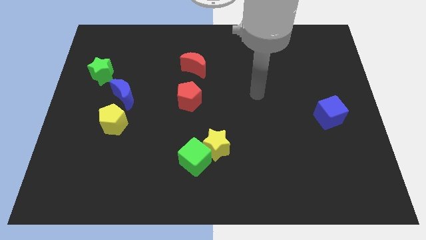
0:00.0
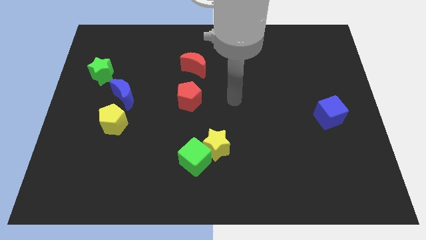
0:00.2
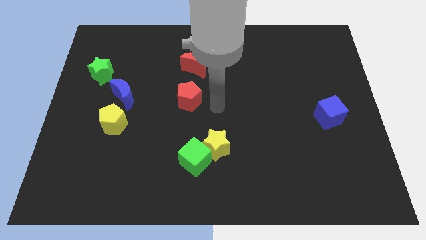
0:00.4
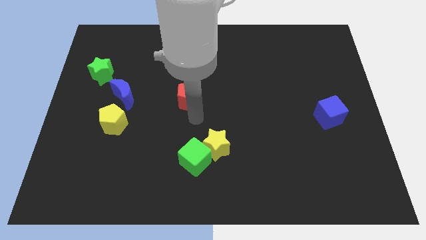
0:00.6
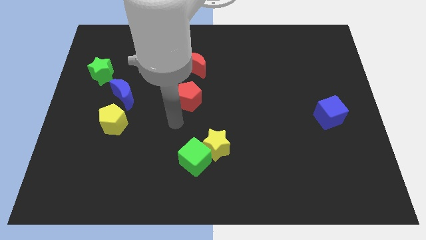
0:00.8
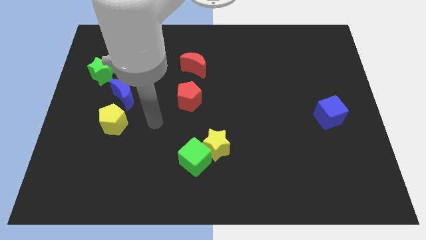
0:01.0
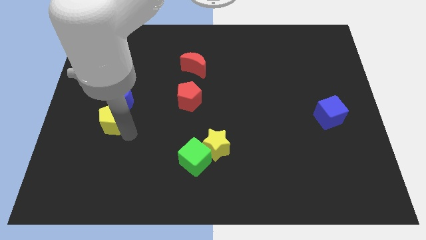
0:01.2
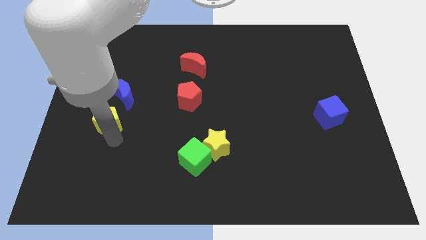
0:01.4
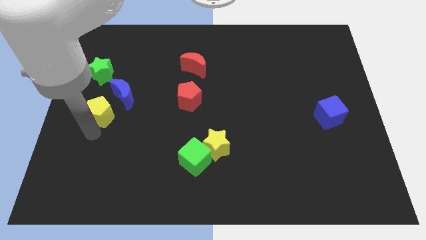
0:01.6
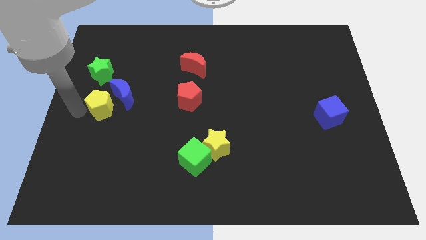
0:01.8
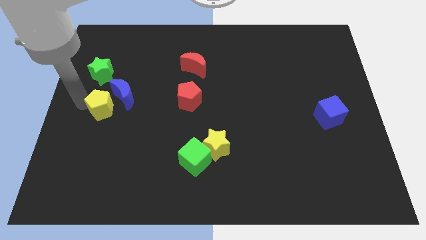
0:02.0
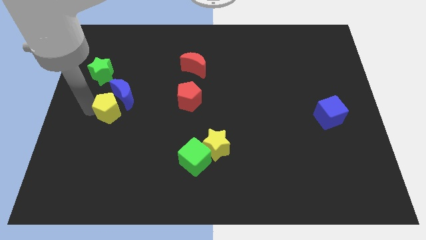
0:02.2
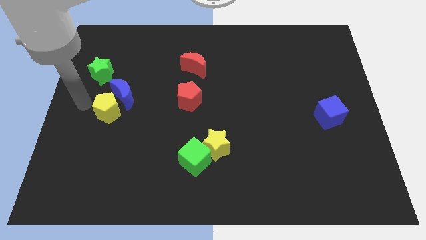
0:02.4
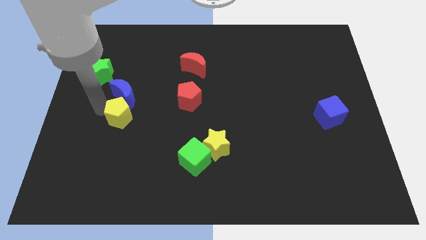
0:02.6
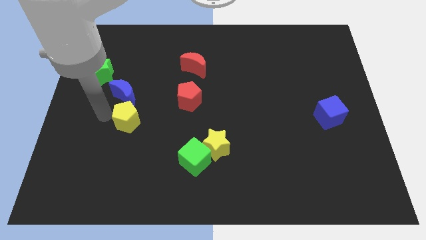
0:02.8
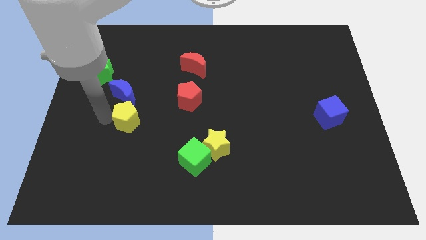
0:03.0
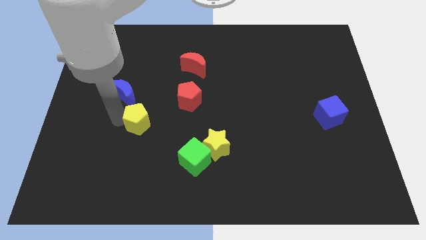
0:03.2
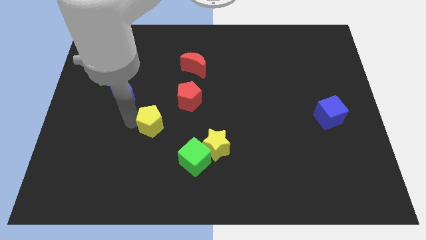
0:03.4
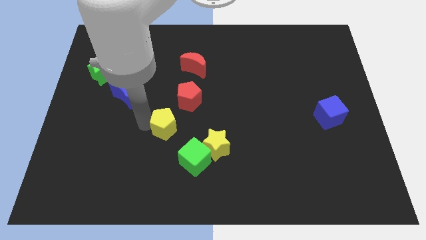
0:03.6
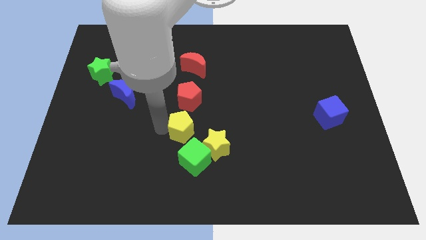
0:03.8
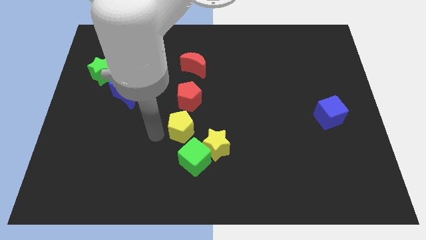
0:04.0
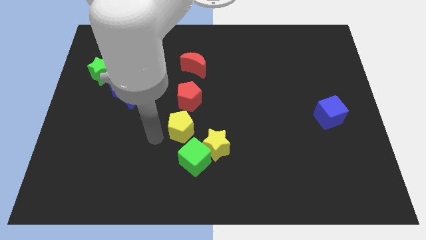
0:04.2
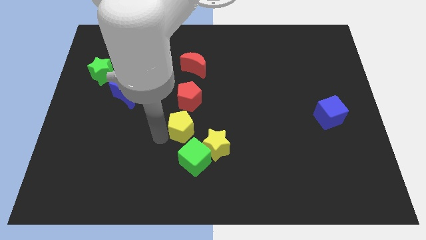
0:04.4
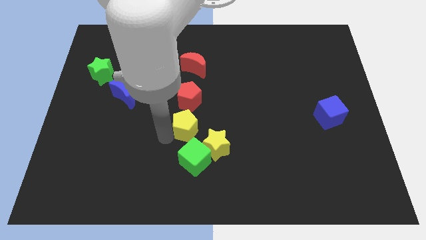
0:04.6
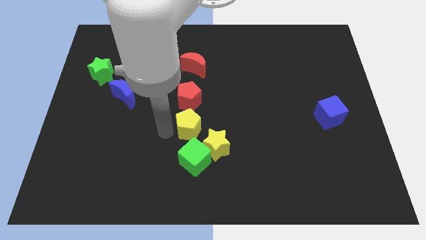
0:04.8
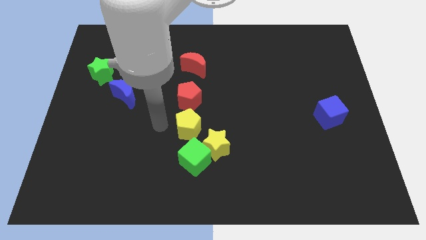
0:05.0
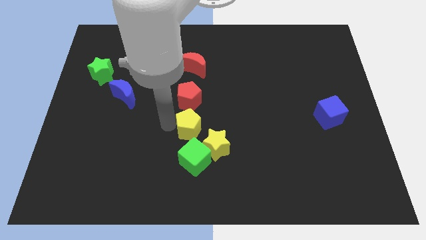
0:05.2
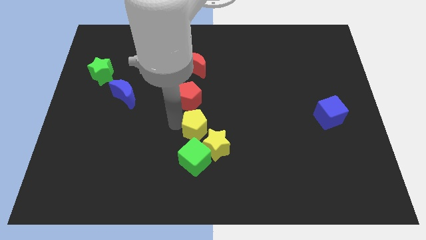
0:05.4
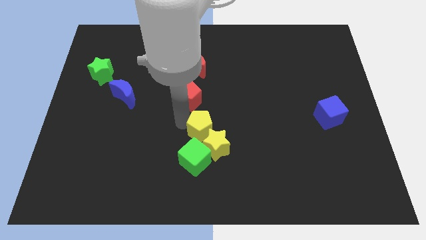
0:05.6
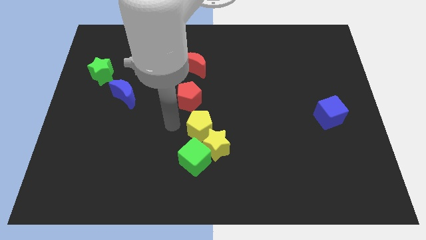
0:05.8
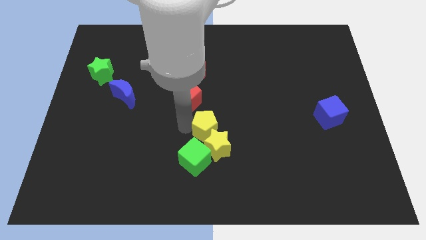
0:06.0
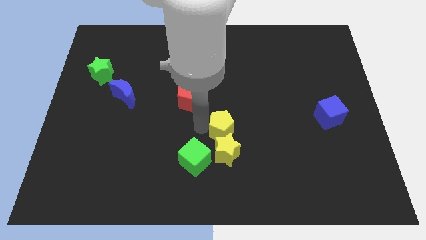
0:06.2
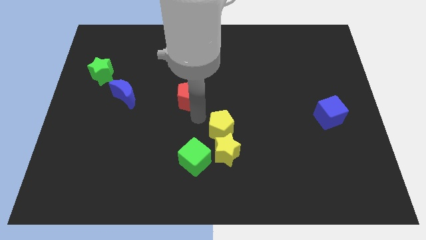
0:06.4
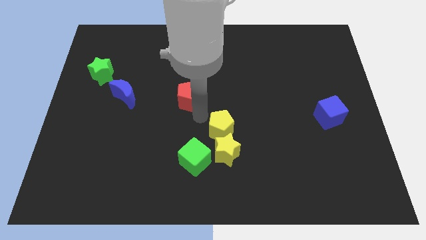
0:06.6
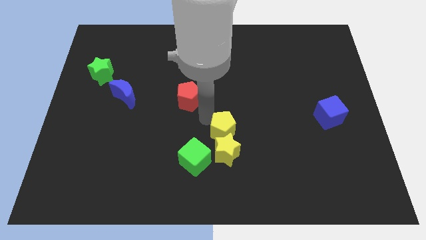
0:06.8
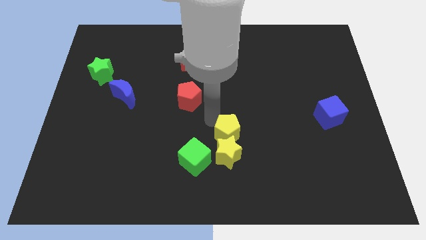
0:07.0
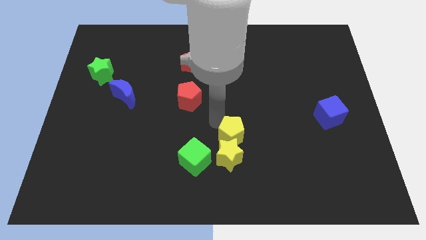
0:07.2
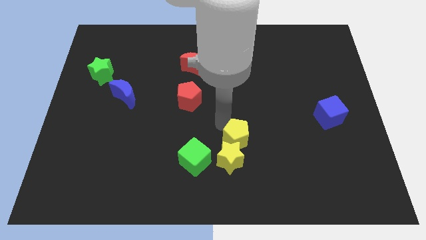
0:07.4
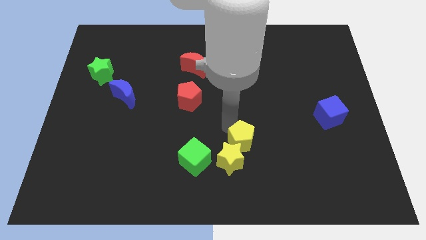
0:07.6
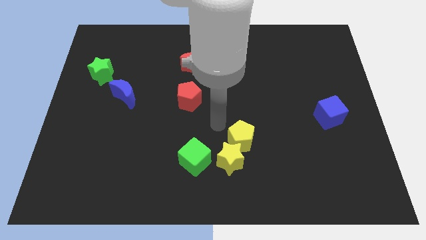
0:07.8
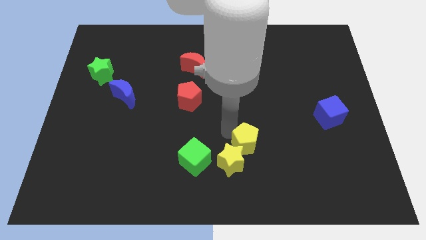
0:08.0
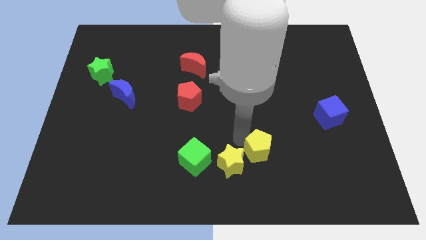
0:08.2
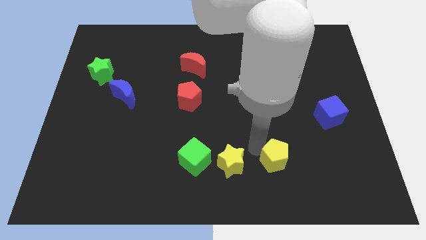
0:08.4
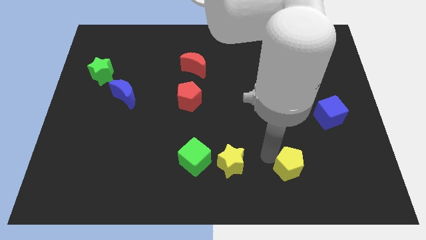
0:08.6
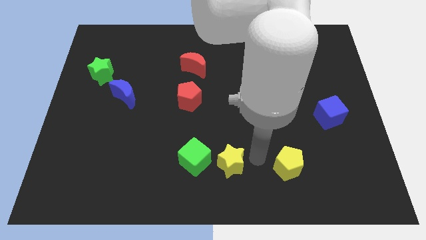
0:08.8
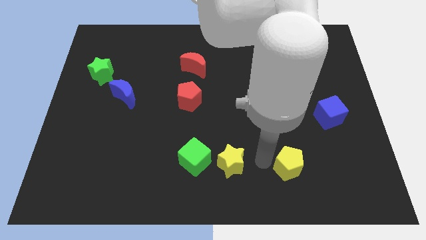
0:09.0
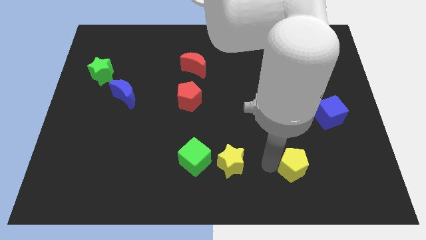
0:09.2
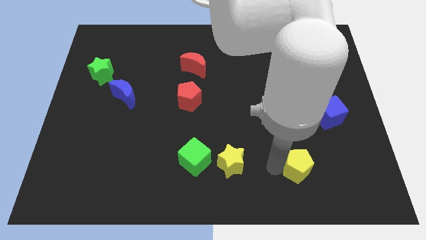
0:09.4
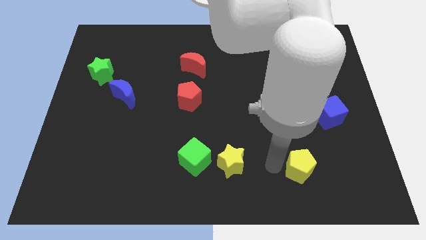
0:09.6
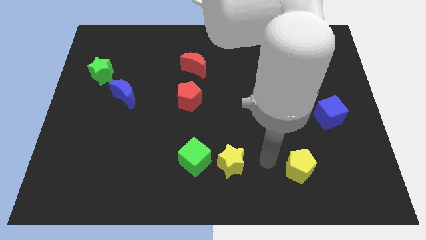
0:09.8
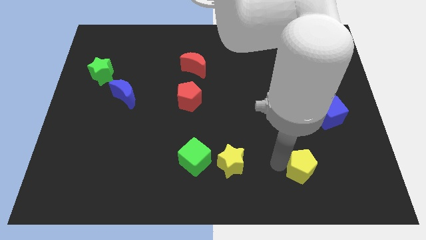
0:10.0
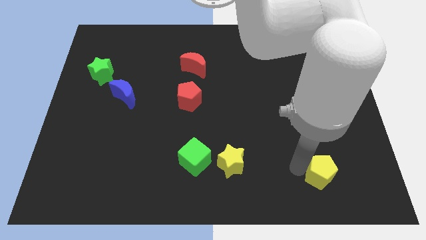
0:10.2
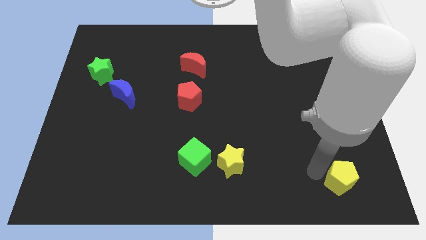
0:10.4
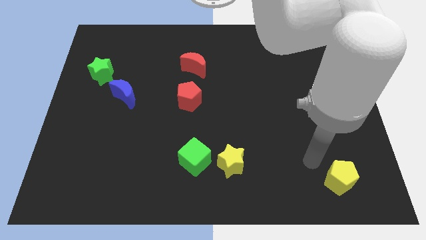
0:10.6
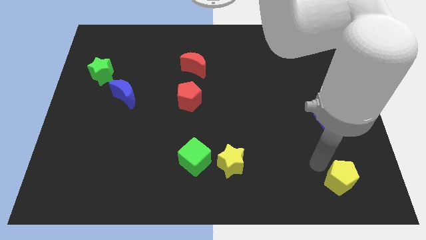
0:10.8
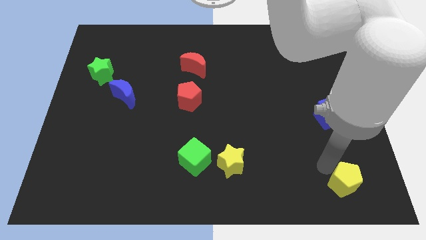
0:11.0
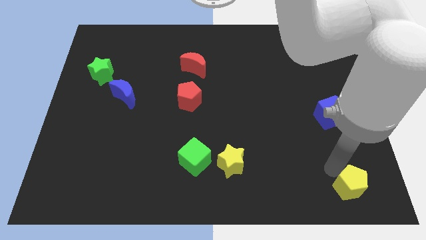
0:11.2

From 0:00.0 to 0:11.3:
put the yellow pentagon to the bottom right
